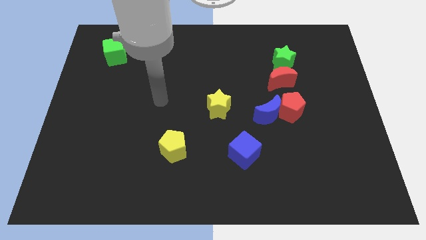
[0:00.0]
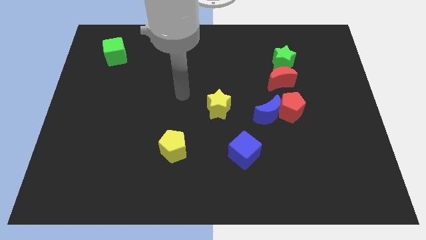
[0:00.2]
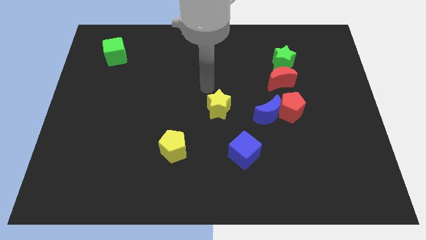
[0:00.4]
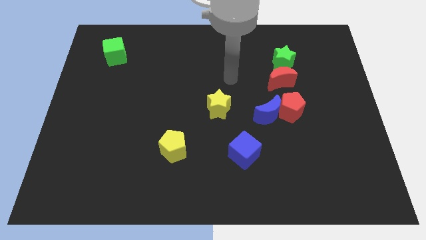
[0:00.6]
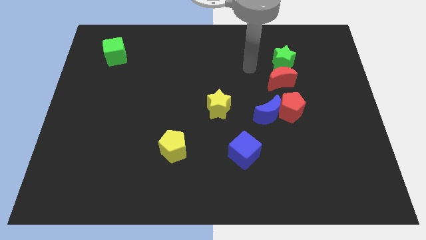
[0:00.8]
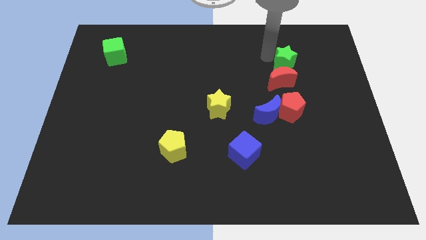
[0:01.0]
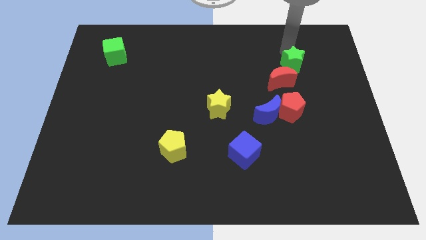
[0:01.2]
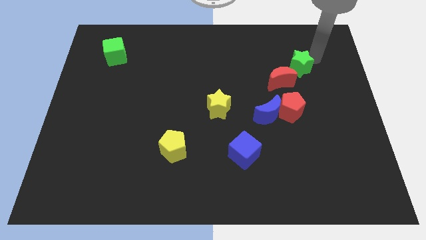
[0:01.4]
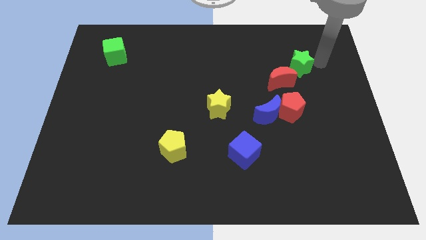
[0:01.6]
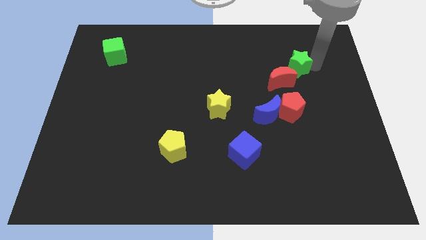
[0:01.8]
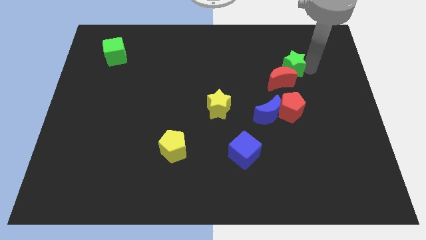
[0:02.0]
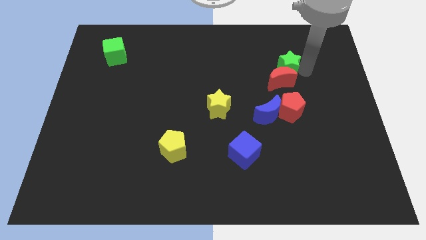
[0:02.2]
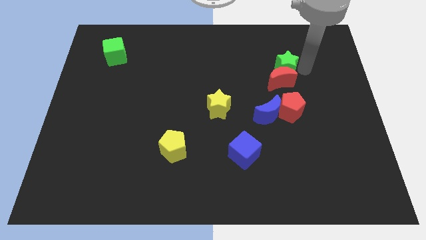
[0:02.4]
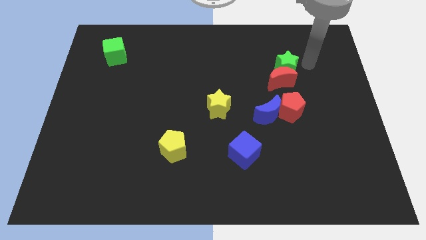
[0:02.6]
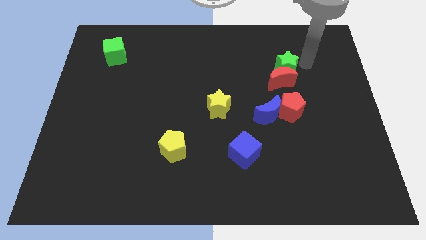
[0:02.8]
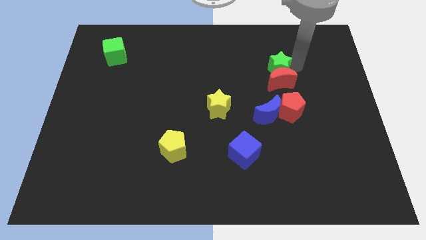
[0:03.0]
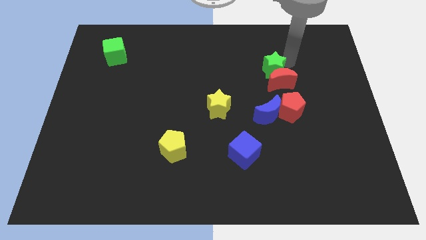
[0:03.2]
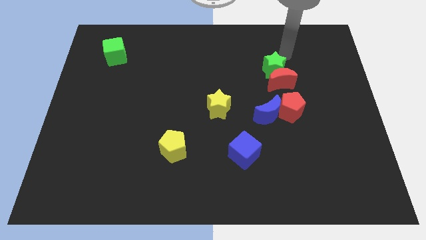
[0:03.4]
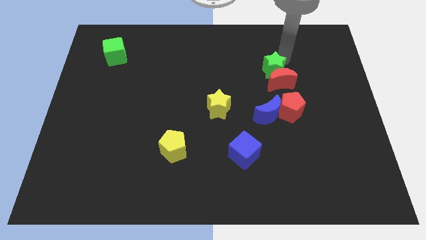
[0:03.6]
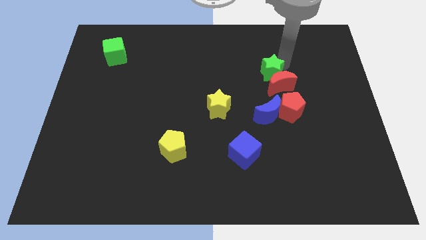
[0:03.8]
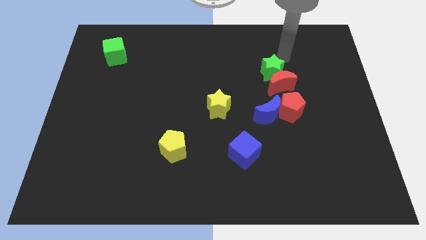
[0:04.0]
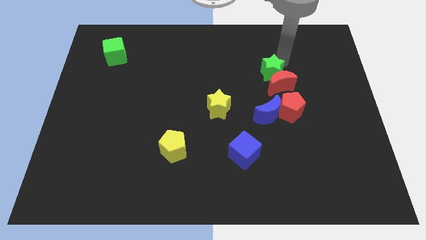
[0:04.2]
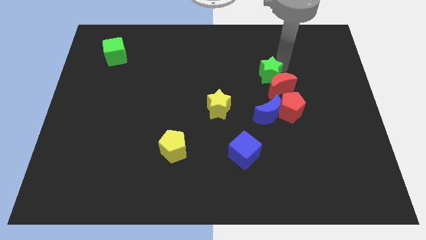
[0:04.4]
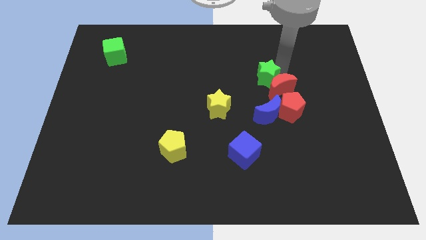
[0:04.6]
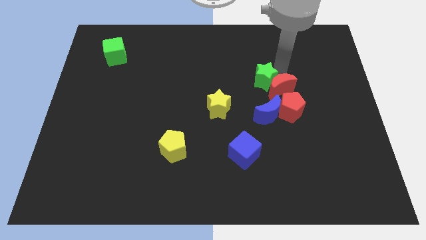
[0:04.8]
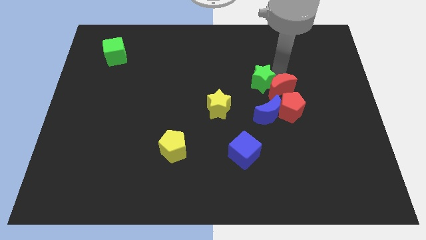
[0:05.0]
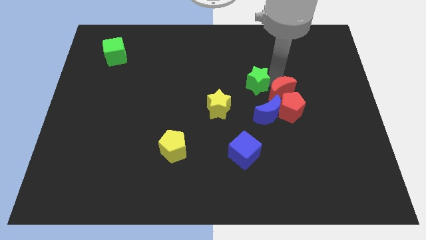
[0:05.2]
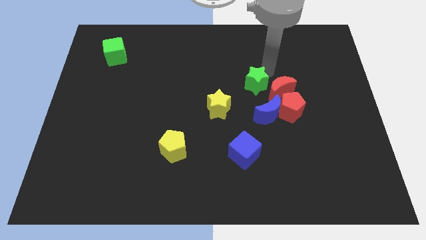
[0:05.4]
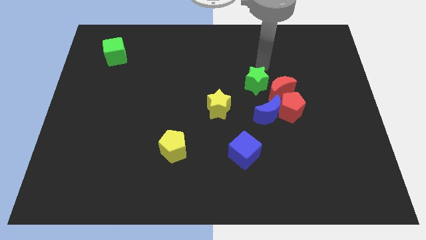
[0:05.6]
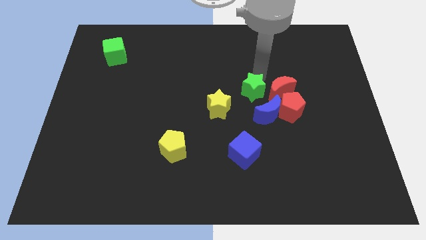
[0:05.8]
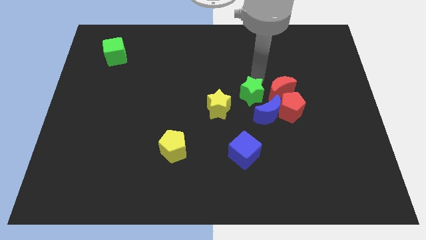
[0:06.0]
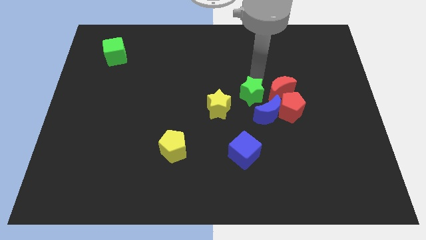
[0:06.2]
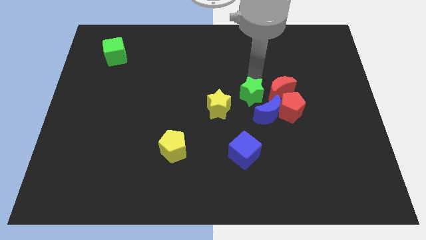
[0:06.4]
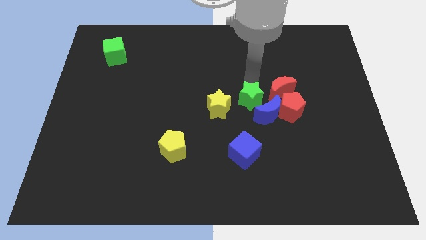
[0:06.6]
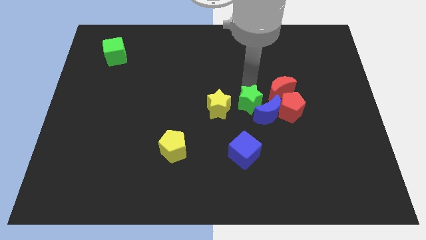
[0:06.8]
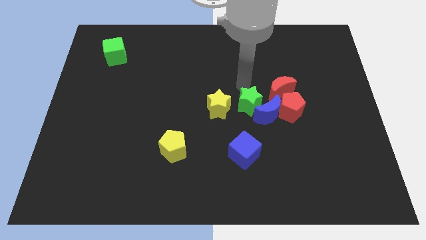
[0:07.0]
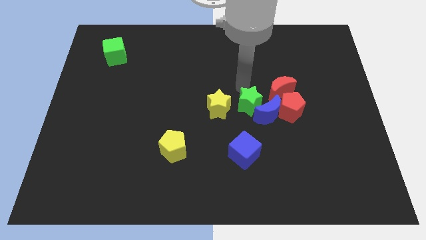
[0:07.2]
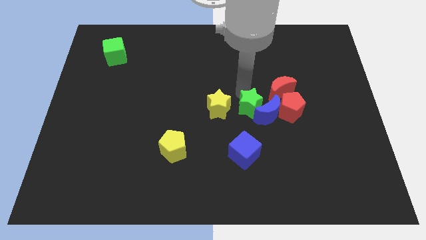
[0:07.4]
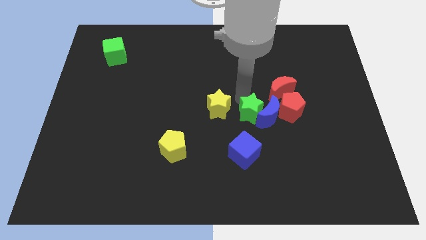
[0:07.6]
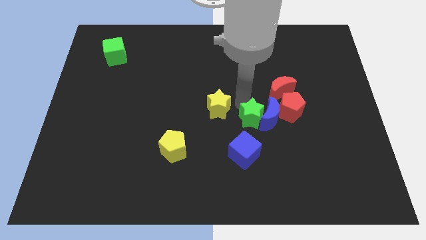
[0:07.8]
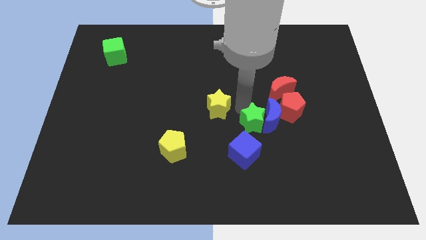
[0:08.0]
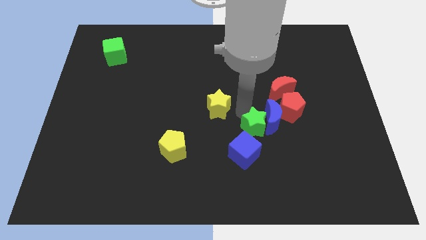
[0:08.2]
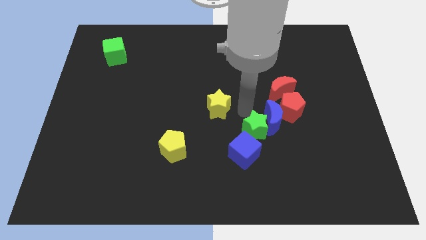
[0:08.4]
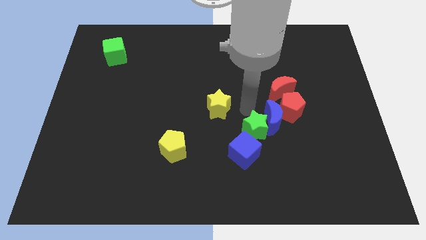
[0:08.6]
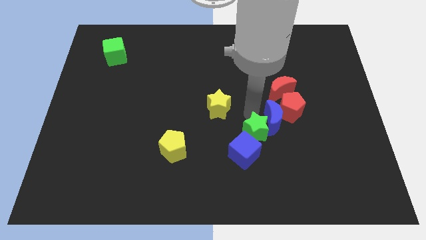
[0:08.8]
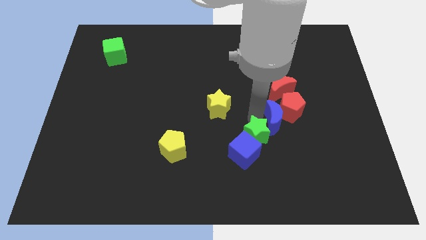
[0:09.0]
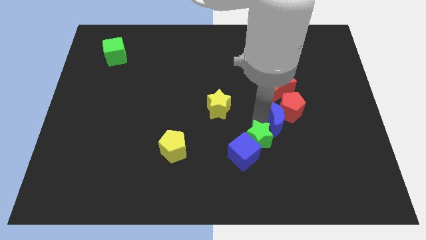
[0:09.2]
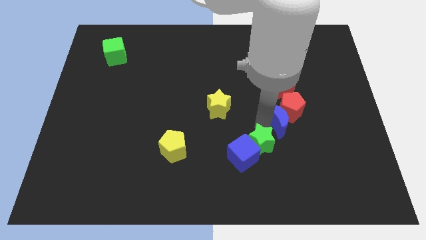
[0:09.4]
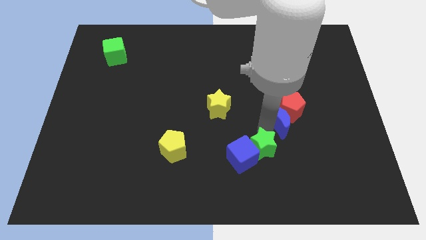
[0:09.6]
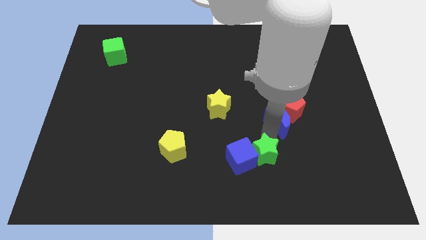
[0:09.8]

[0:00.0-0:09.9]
move the green star to the bottom right side of the blue cube

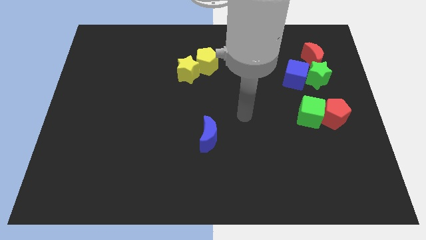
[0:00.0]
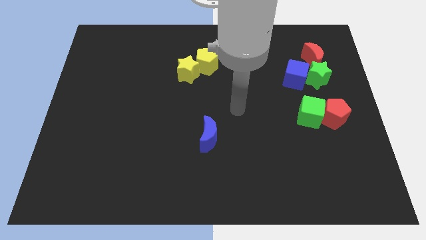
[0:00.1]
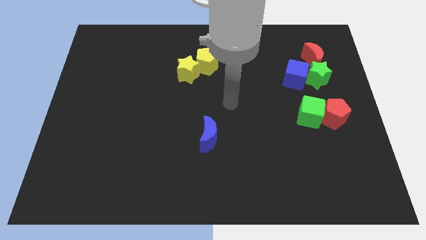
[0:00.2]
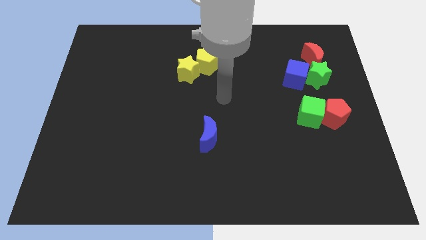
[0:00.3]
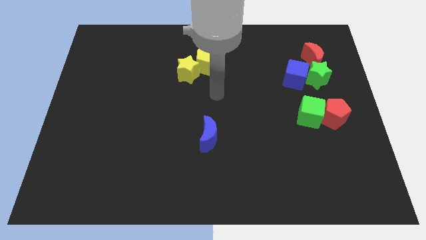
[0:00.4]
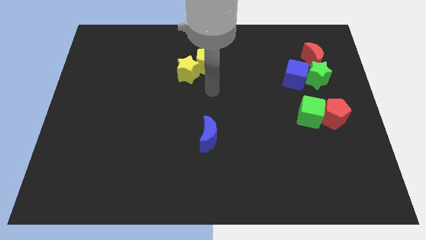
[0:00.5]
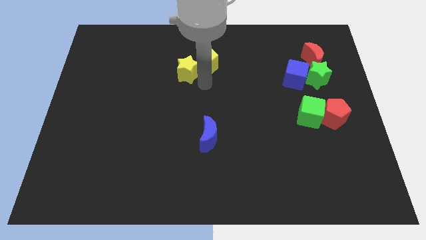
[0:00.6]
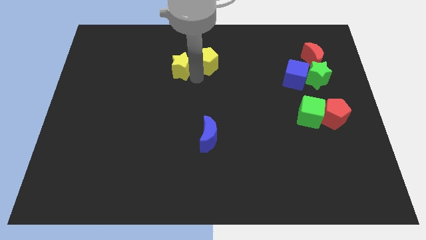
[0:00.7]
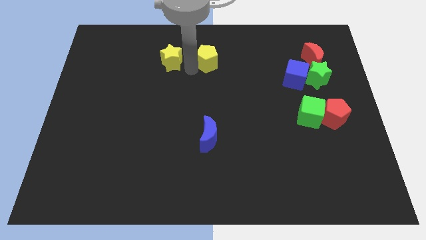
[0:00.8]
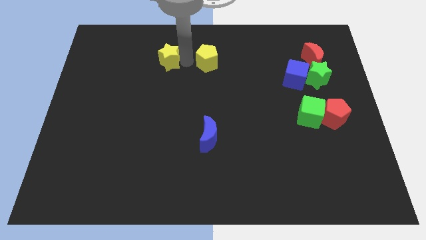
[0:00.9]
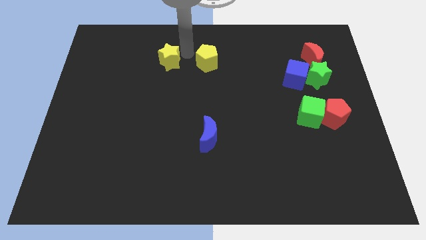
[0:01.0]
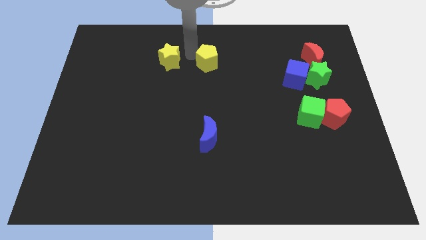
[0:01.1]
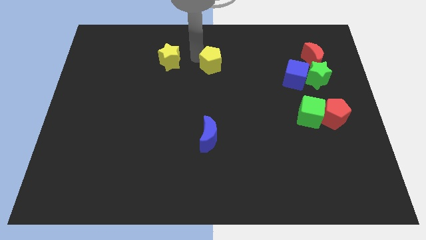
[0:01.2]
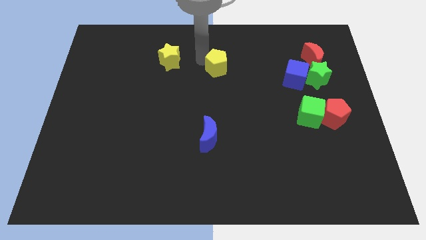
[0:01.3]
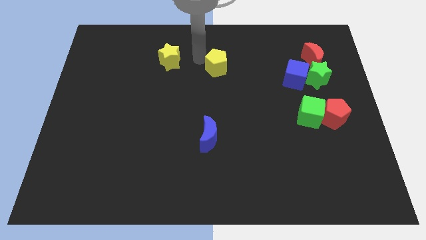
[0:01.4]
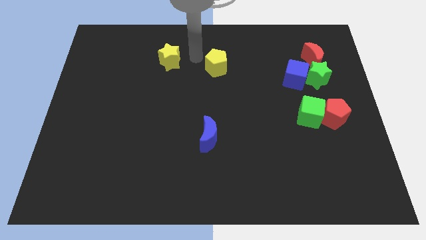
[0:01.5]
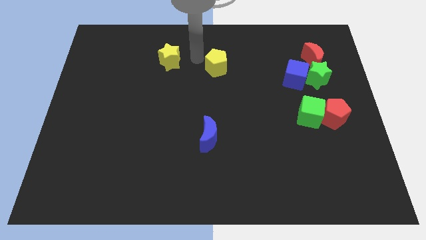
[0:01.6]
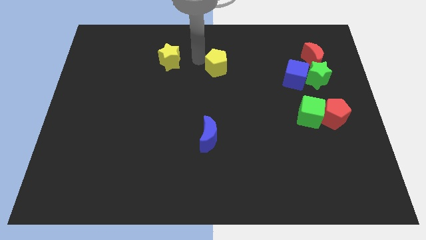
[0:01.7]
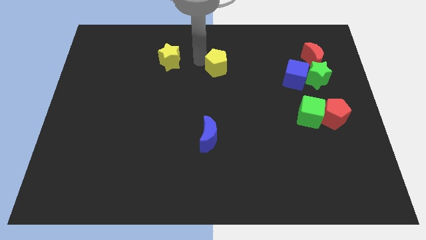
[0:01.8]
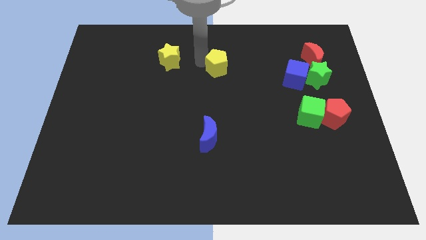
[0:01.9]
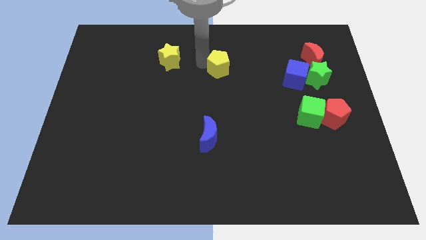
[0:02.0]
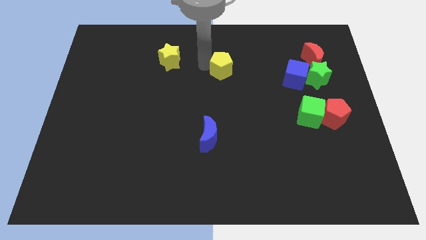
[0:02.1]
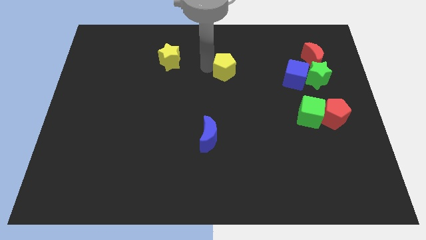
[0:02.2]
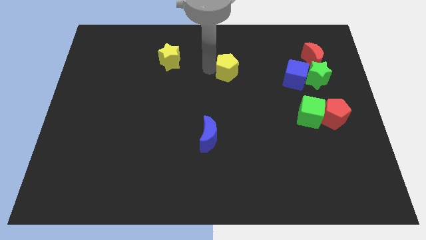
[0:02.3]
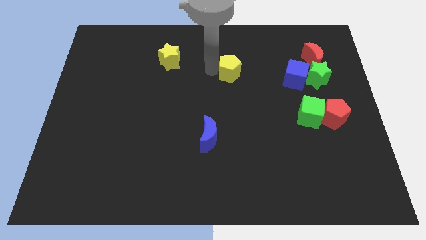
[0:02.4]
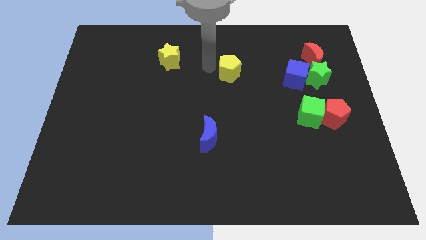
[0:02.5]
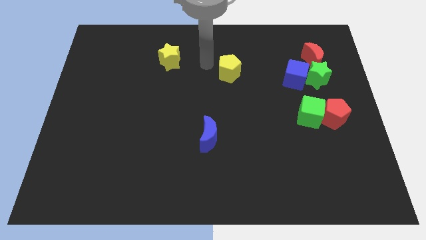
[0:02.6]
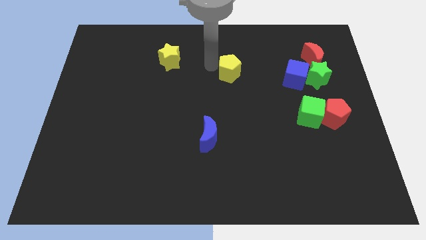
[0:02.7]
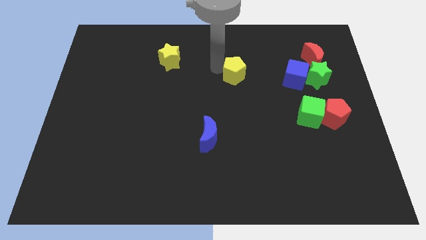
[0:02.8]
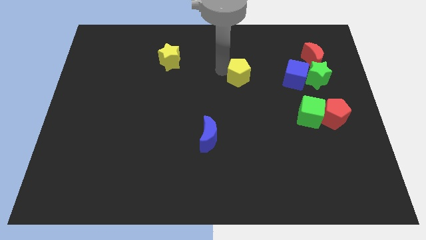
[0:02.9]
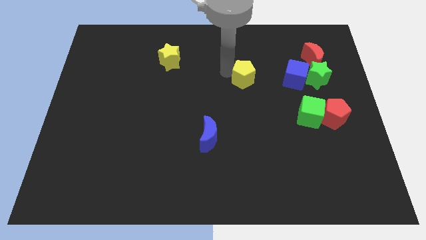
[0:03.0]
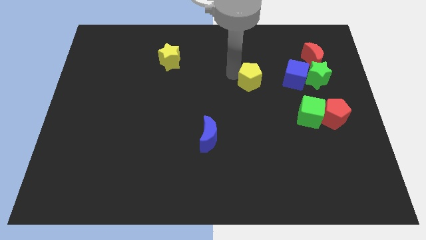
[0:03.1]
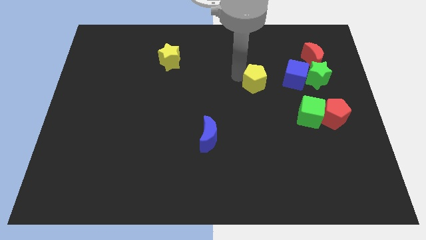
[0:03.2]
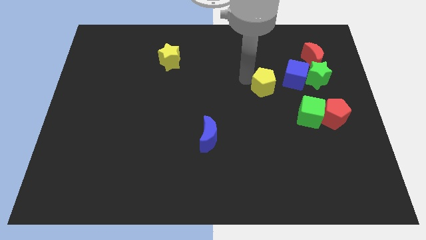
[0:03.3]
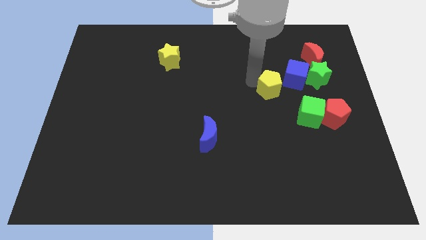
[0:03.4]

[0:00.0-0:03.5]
slide the yellow pentagon to the top left of the green cube
